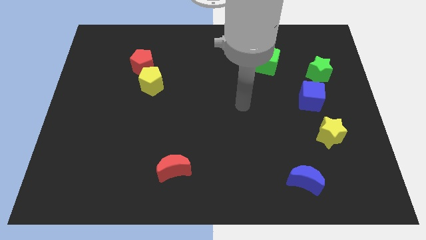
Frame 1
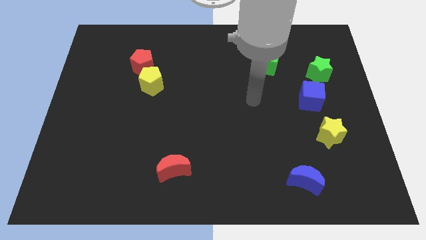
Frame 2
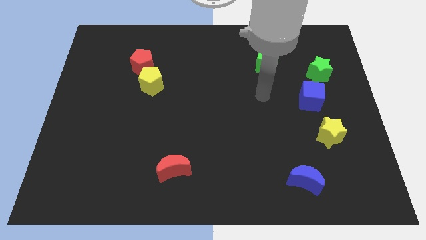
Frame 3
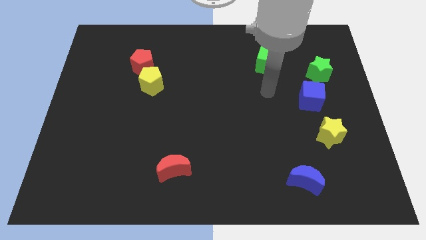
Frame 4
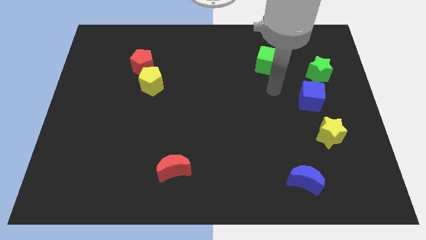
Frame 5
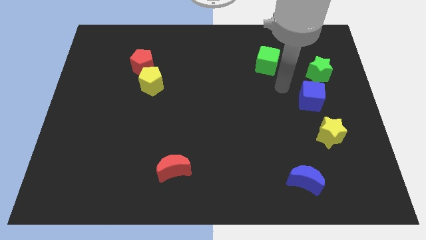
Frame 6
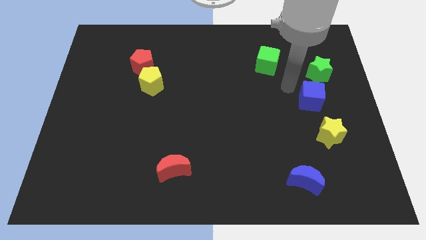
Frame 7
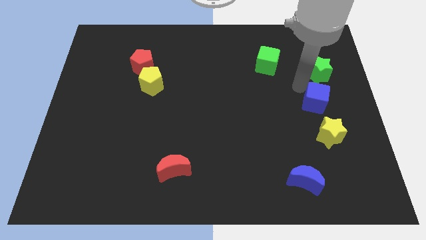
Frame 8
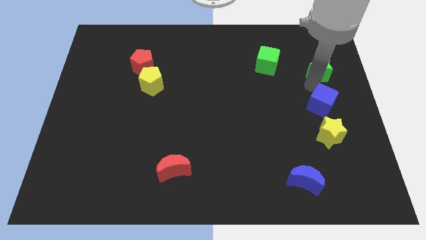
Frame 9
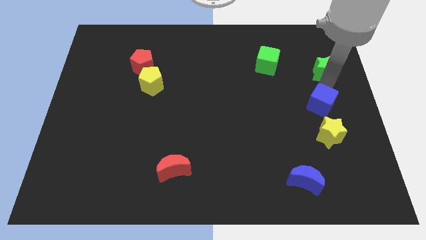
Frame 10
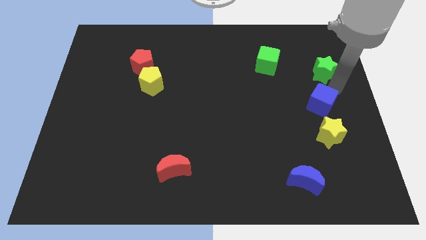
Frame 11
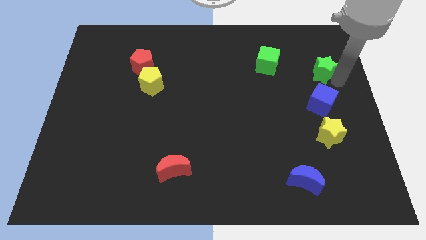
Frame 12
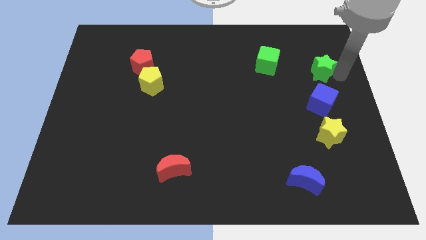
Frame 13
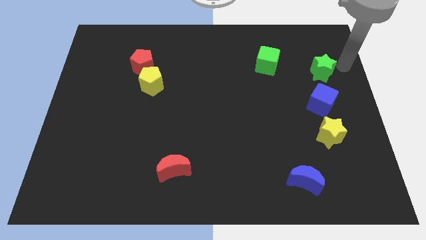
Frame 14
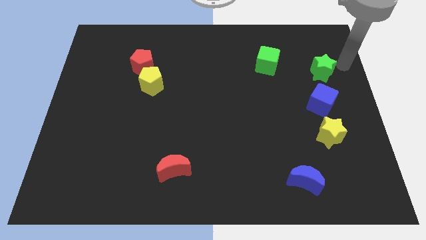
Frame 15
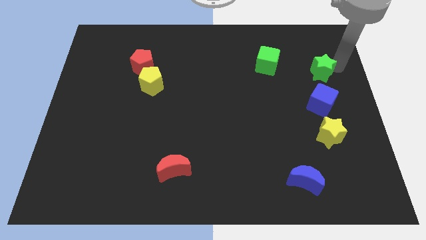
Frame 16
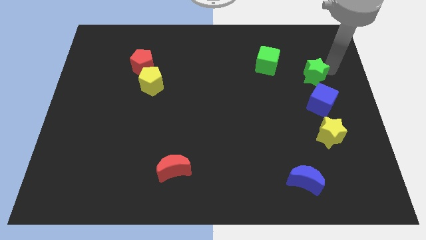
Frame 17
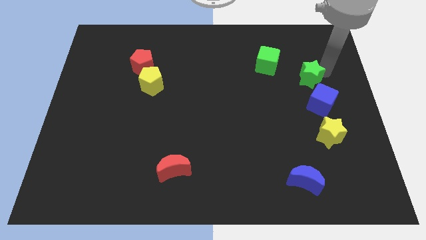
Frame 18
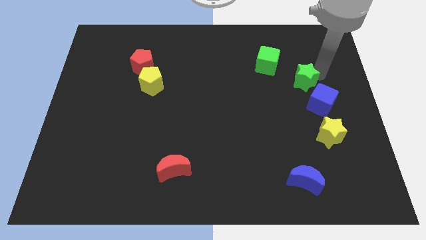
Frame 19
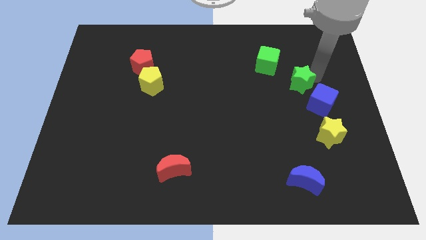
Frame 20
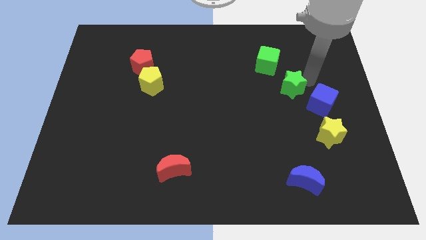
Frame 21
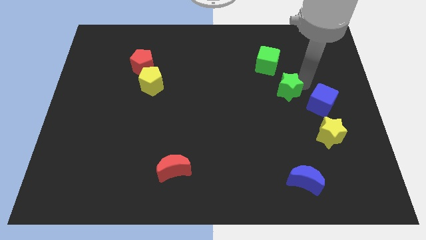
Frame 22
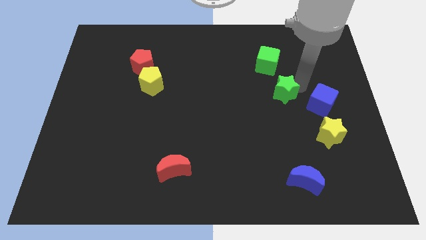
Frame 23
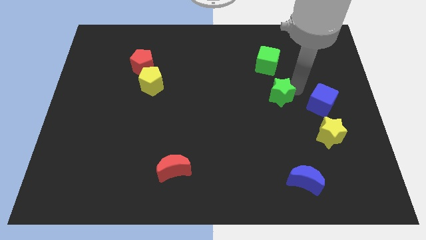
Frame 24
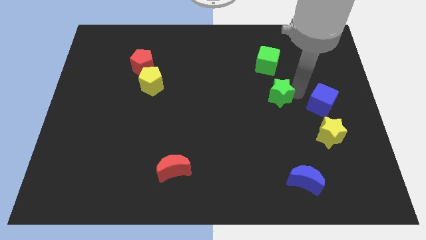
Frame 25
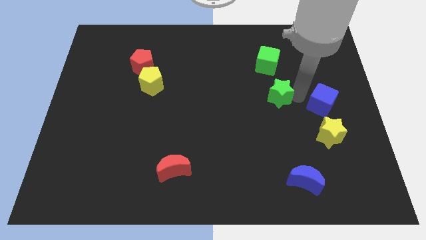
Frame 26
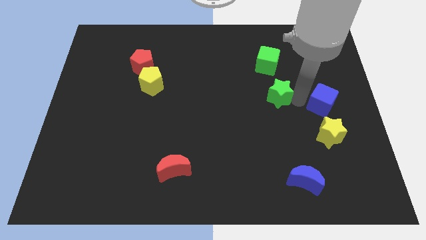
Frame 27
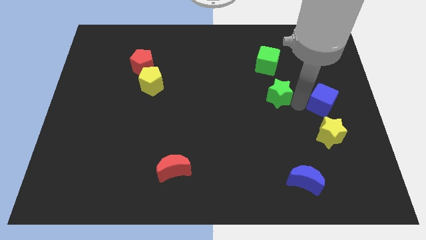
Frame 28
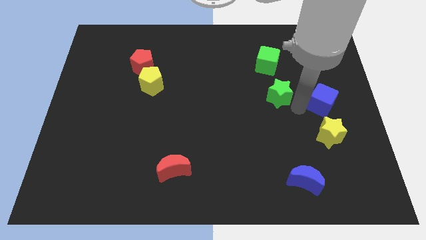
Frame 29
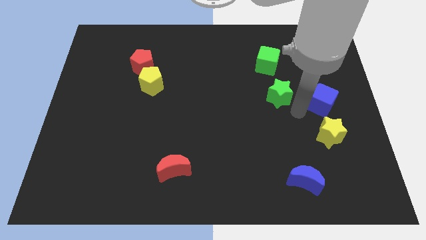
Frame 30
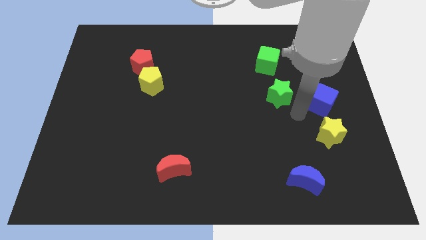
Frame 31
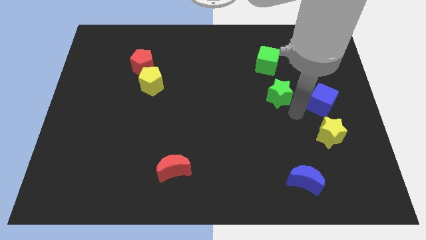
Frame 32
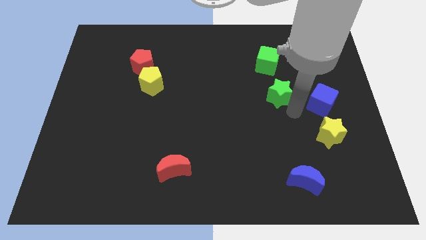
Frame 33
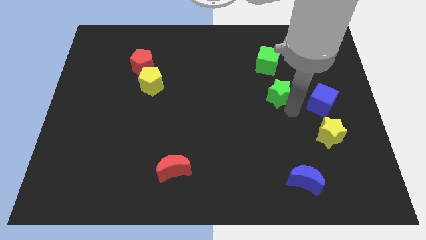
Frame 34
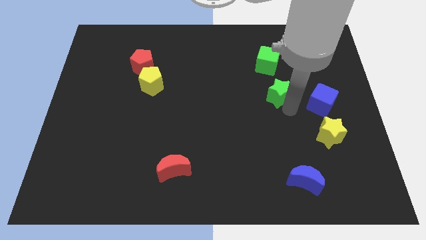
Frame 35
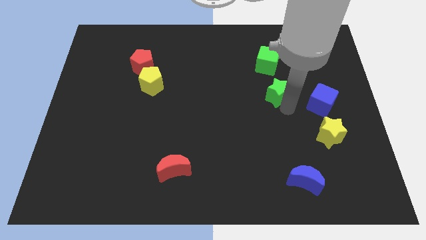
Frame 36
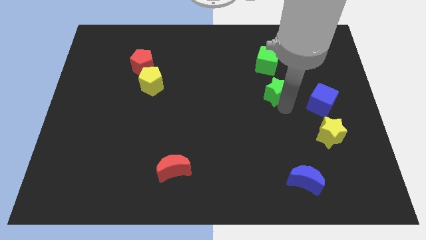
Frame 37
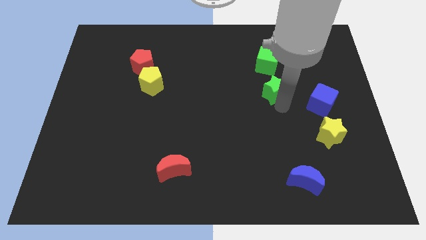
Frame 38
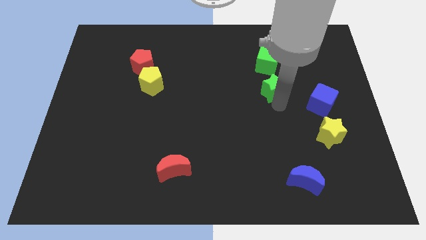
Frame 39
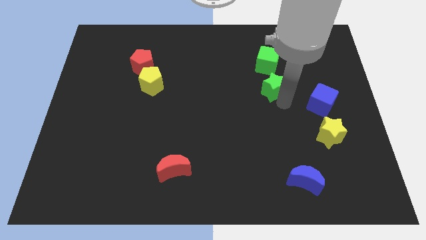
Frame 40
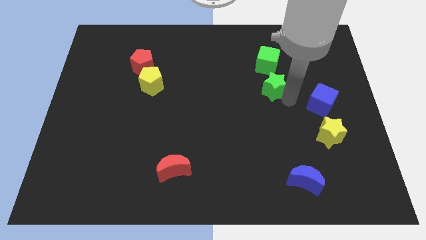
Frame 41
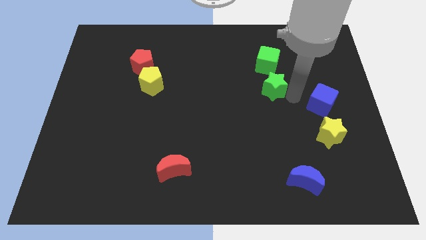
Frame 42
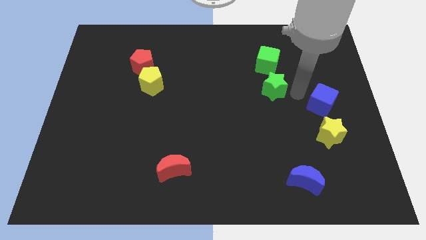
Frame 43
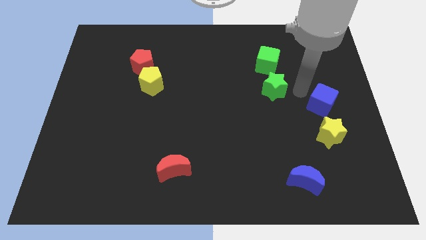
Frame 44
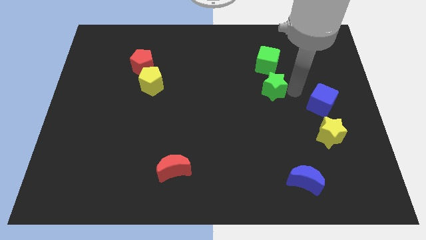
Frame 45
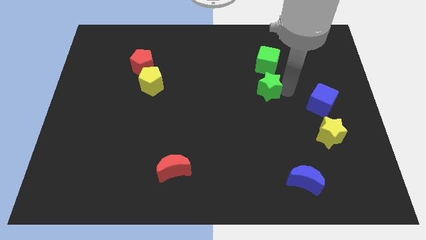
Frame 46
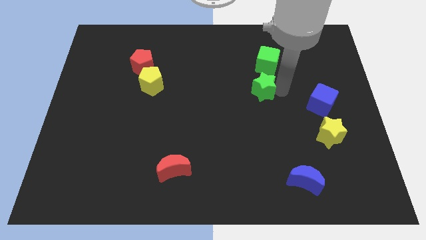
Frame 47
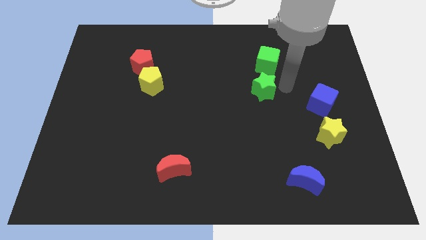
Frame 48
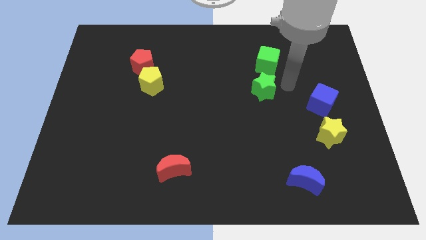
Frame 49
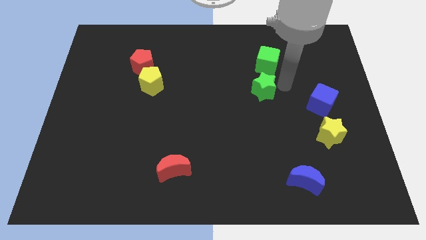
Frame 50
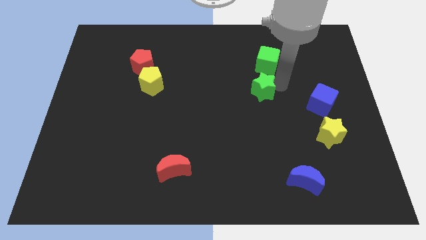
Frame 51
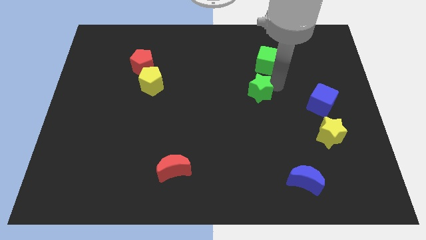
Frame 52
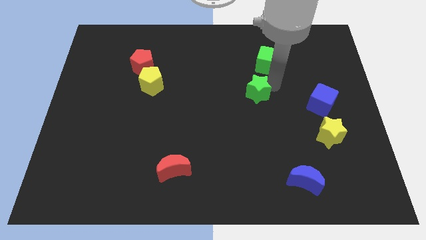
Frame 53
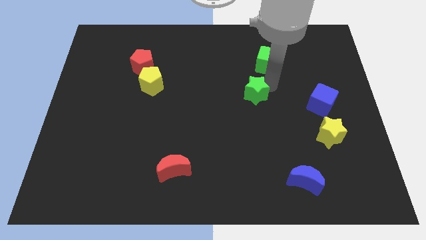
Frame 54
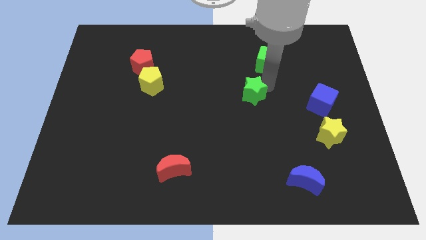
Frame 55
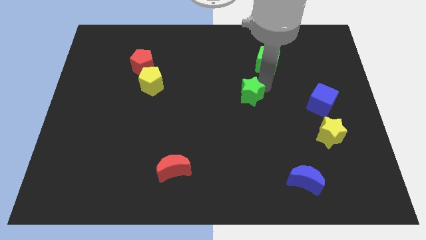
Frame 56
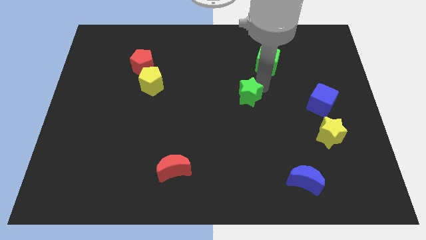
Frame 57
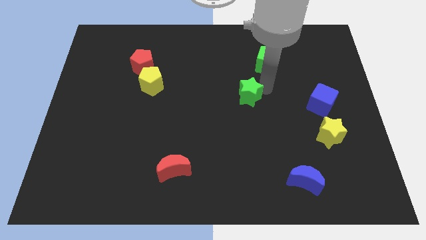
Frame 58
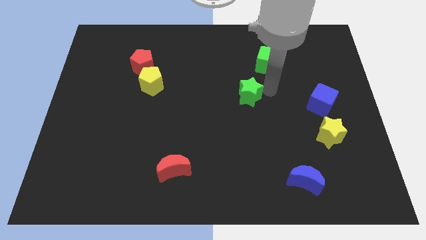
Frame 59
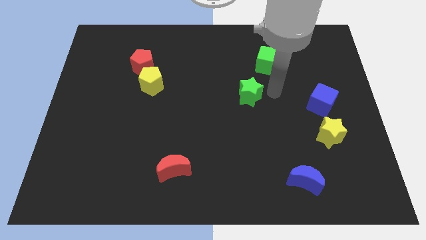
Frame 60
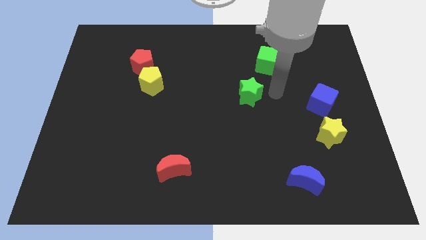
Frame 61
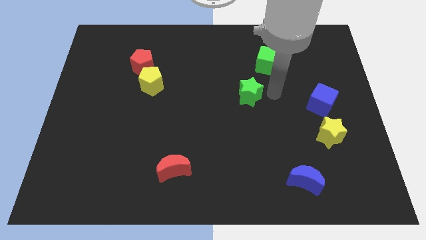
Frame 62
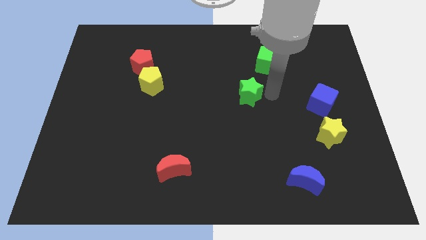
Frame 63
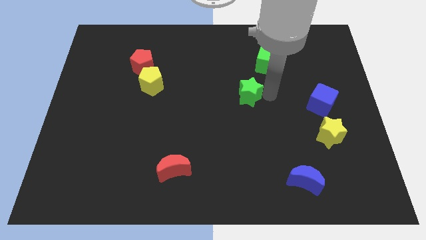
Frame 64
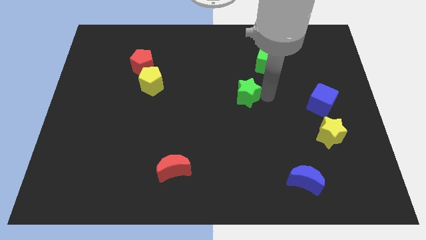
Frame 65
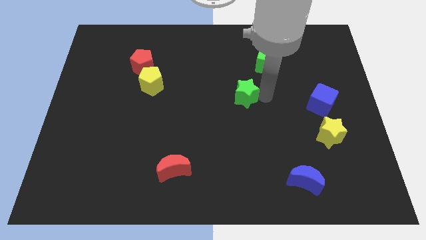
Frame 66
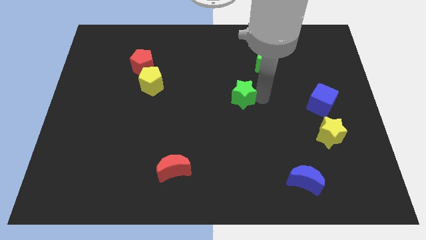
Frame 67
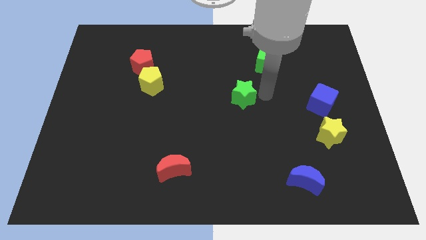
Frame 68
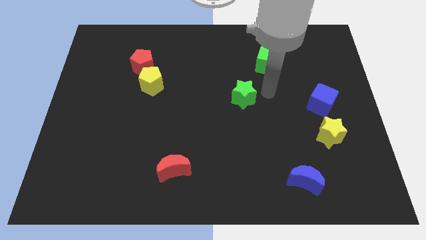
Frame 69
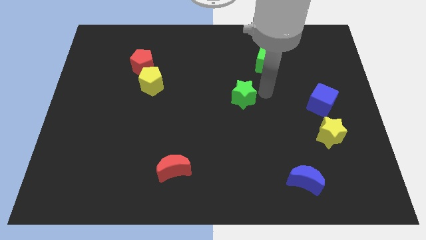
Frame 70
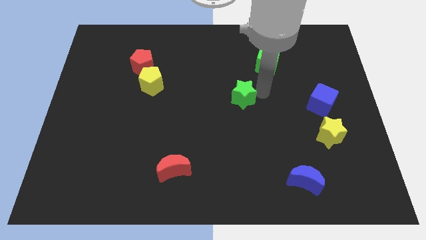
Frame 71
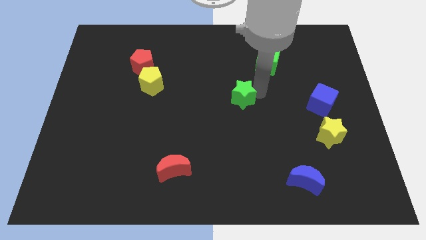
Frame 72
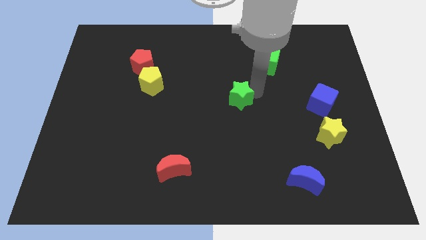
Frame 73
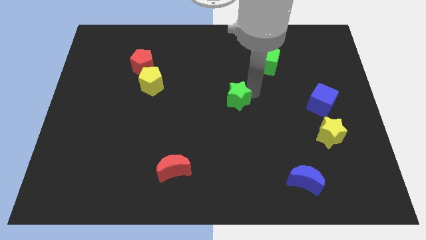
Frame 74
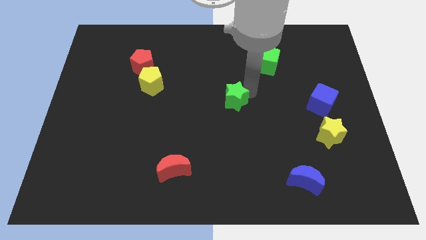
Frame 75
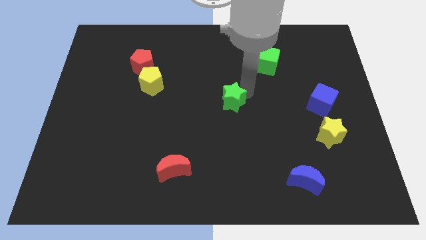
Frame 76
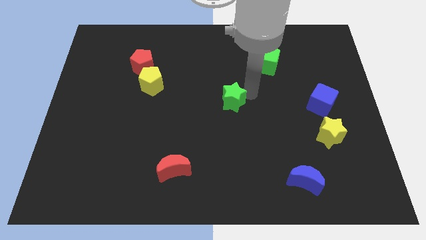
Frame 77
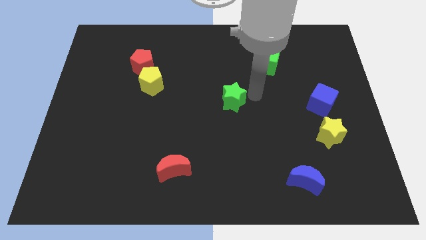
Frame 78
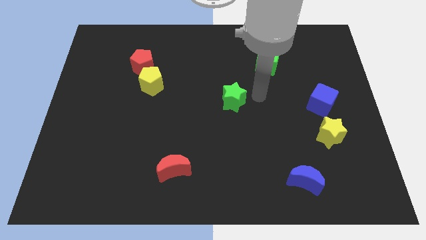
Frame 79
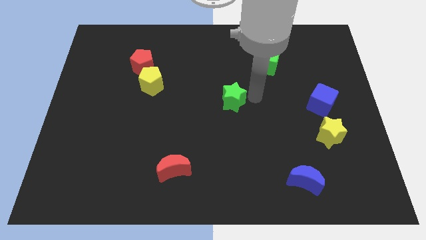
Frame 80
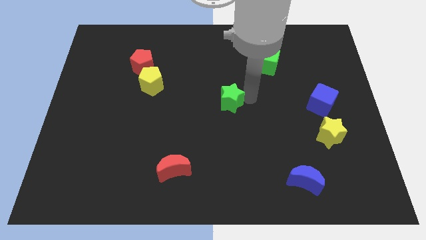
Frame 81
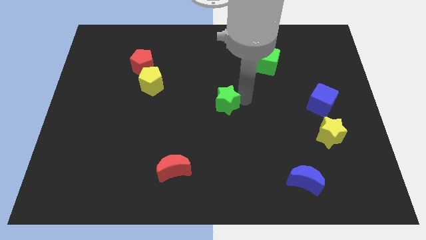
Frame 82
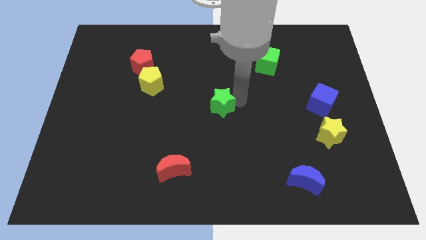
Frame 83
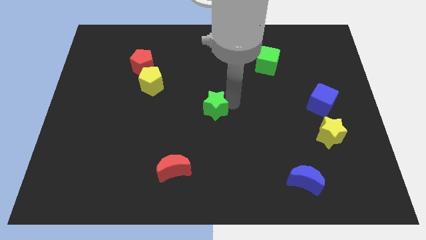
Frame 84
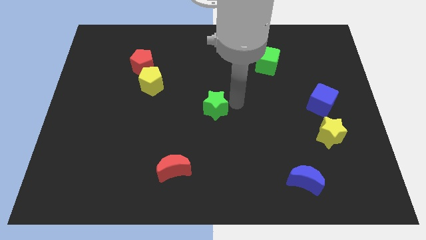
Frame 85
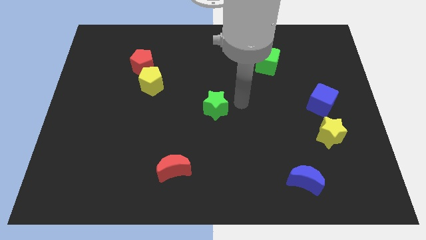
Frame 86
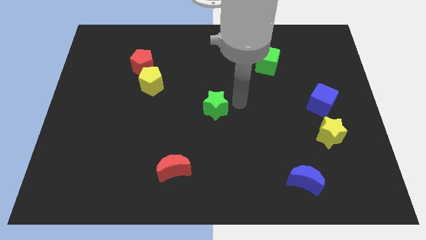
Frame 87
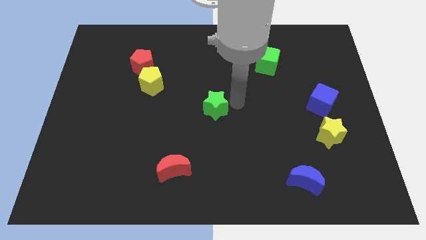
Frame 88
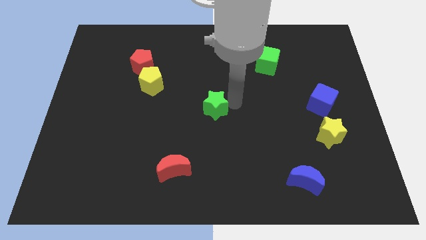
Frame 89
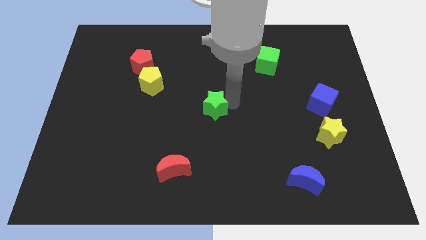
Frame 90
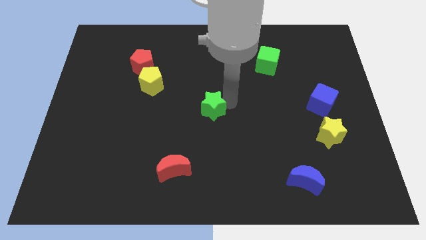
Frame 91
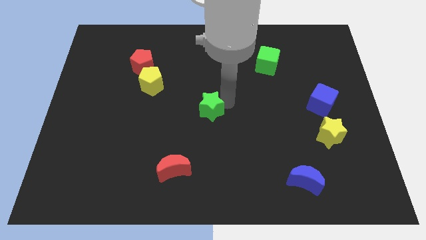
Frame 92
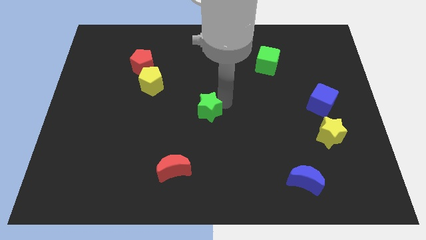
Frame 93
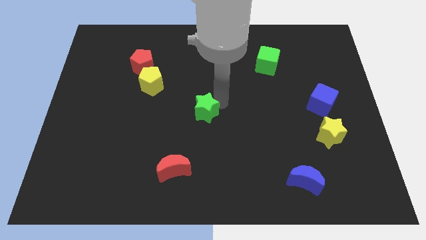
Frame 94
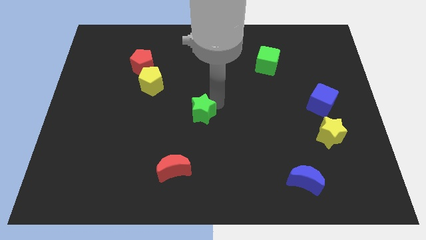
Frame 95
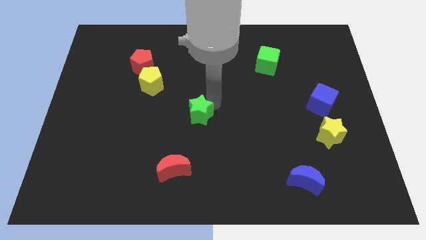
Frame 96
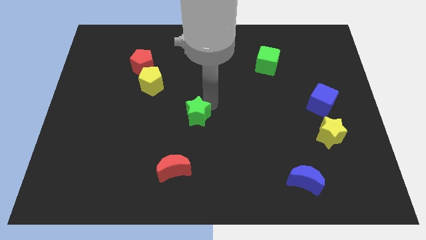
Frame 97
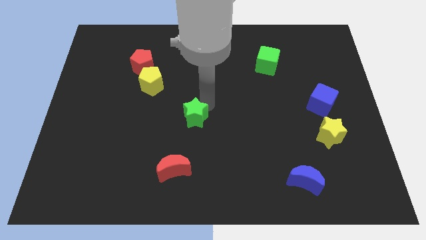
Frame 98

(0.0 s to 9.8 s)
slide the green star above the red moon
